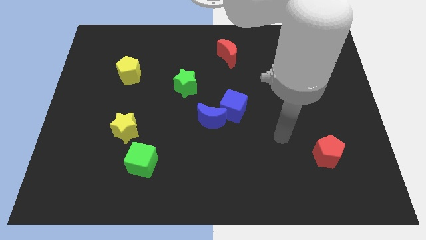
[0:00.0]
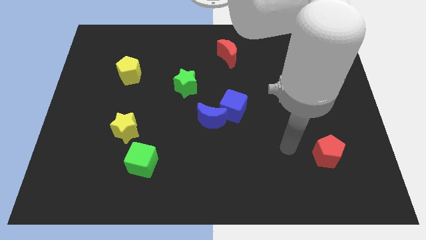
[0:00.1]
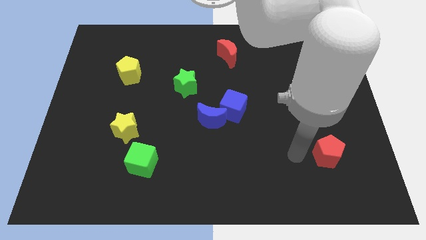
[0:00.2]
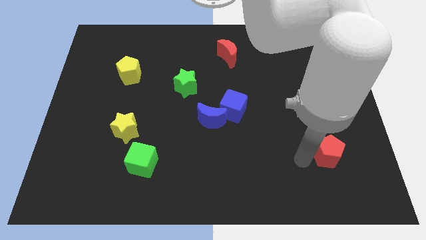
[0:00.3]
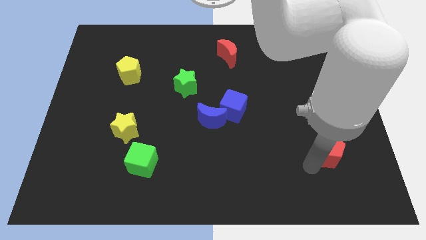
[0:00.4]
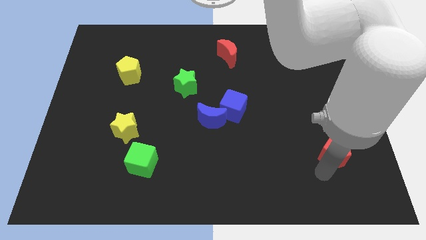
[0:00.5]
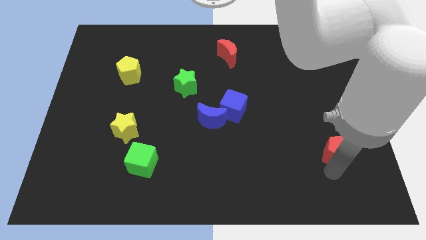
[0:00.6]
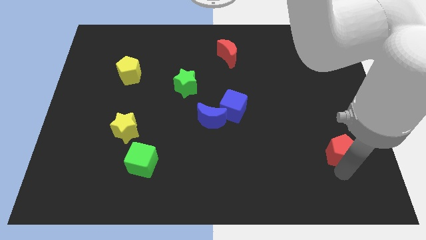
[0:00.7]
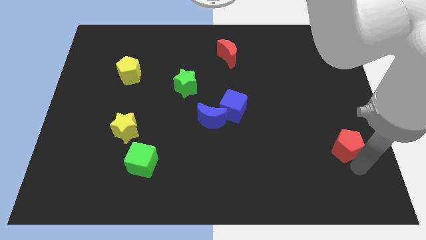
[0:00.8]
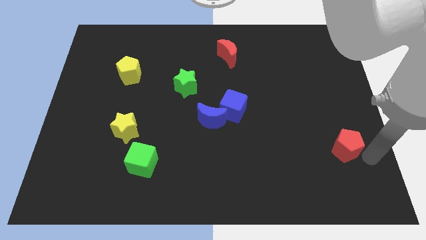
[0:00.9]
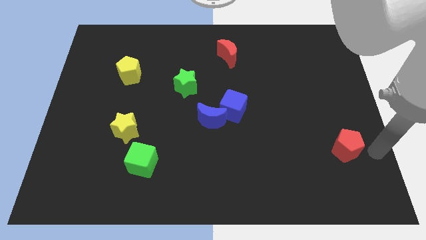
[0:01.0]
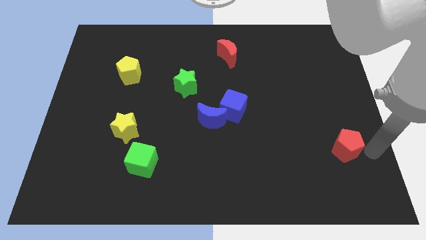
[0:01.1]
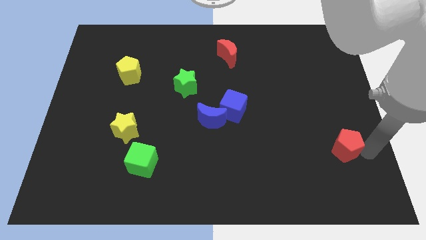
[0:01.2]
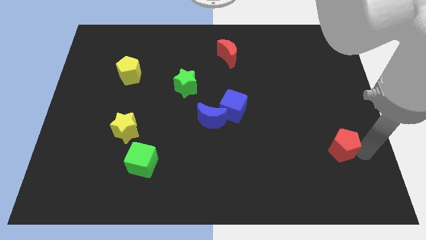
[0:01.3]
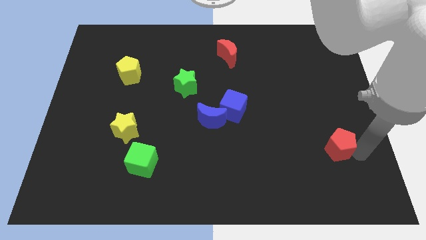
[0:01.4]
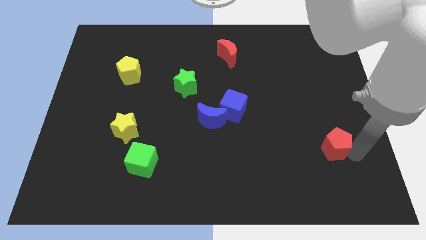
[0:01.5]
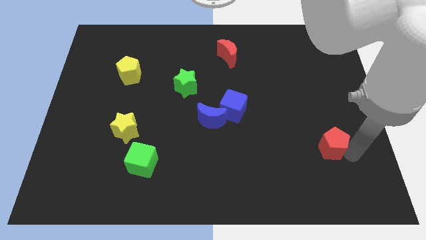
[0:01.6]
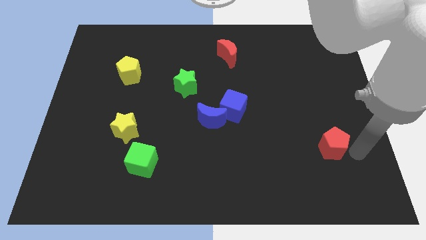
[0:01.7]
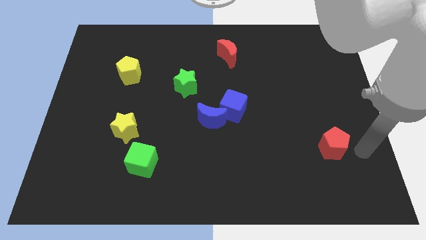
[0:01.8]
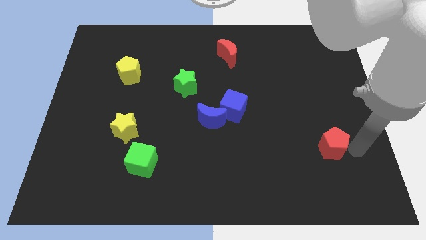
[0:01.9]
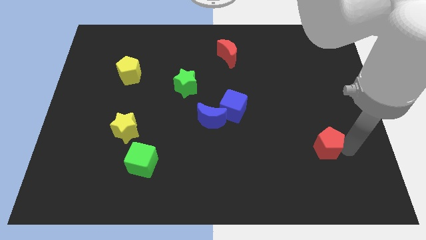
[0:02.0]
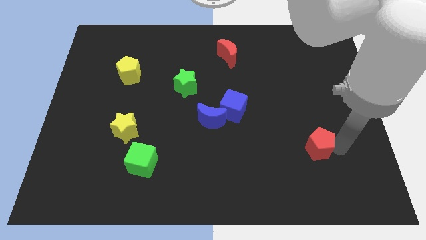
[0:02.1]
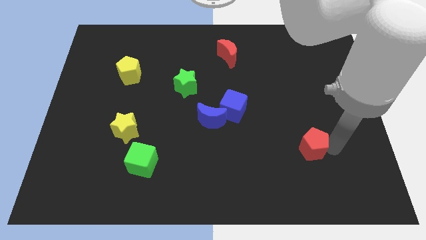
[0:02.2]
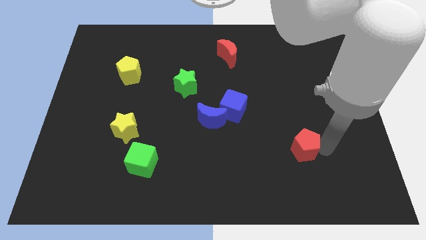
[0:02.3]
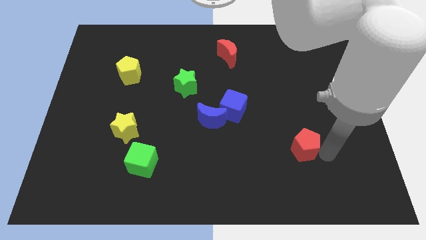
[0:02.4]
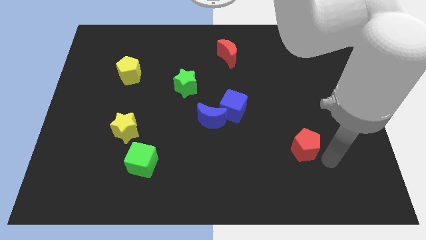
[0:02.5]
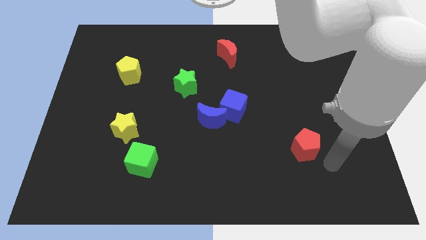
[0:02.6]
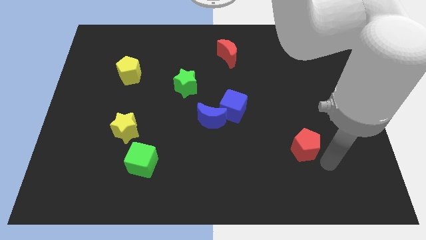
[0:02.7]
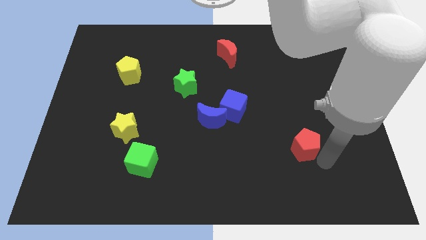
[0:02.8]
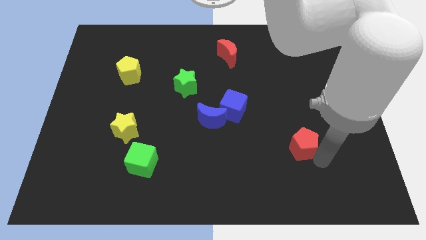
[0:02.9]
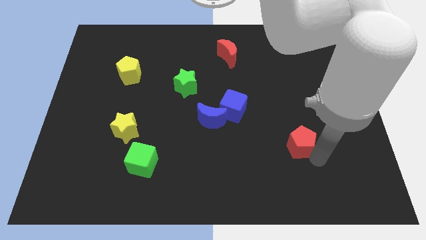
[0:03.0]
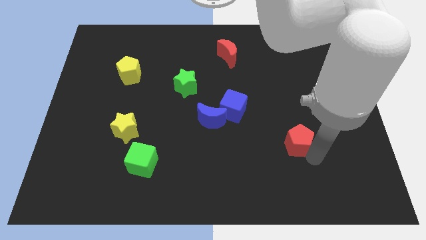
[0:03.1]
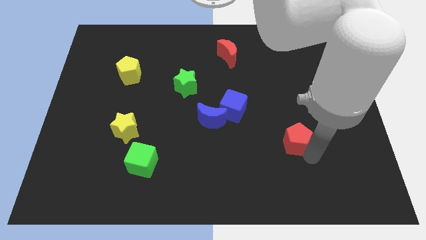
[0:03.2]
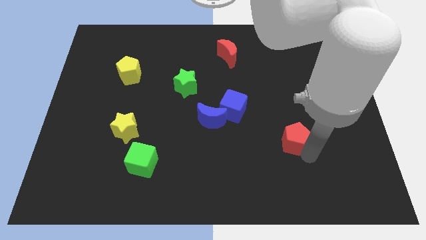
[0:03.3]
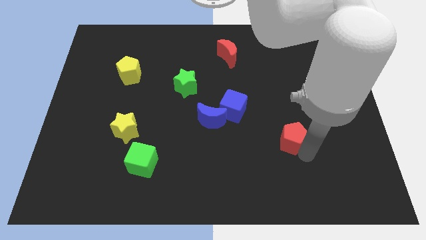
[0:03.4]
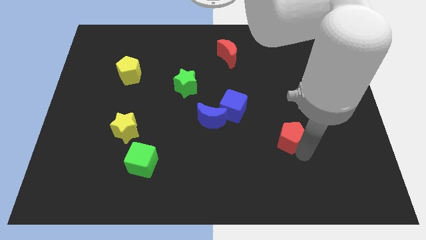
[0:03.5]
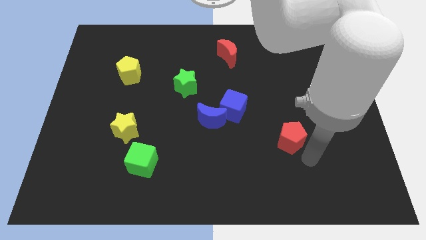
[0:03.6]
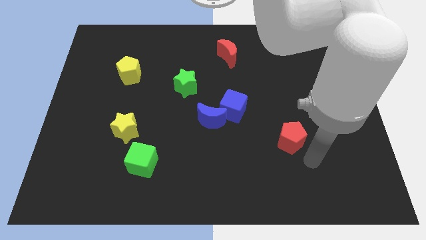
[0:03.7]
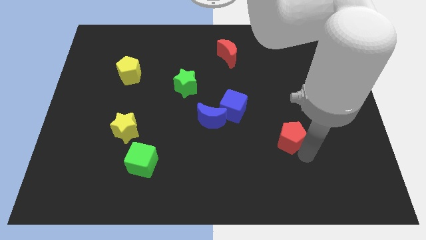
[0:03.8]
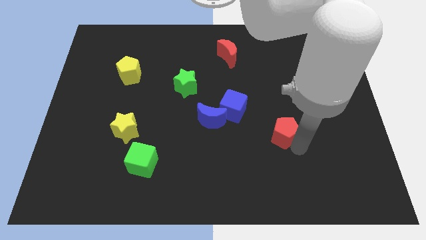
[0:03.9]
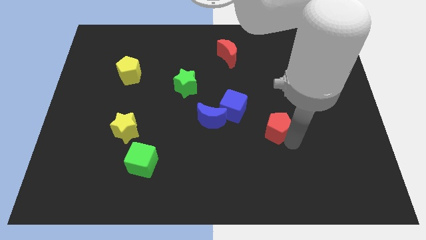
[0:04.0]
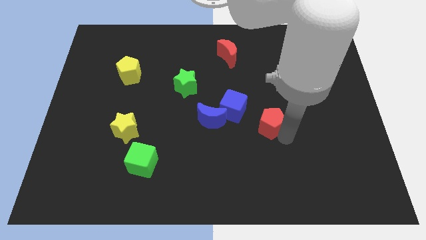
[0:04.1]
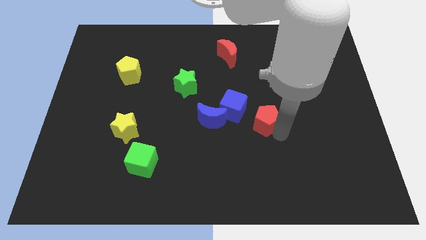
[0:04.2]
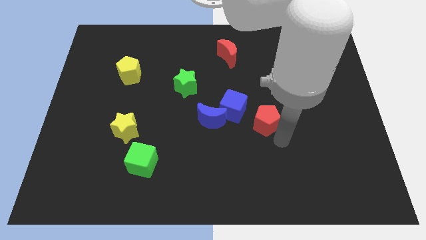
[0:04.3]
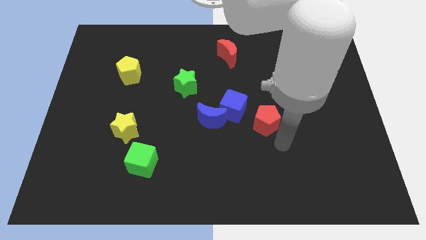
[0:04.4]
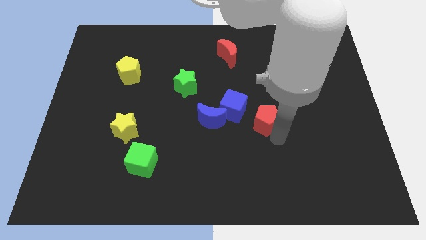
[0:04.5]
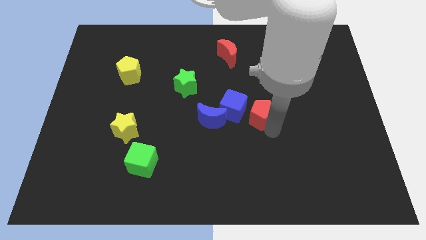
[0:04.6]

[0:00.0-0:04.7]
slide the red pentagon to the center of the board

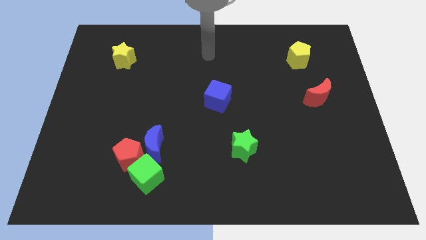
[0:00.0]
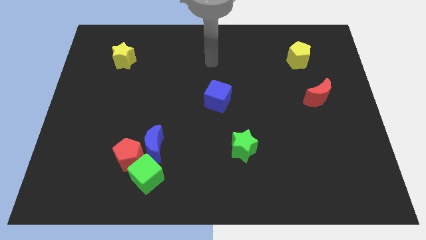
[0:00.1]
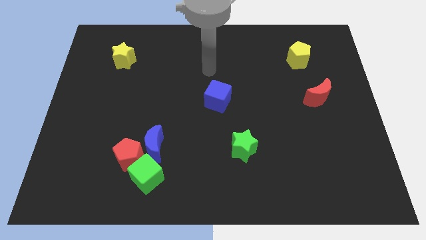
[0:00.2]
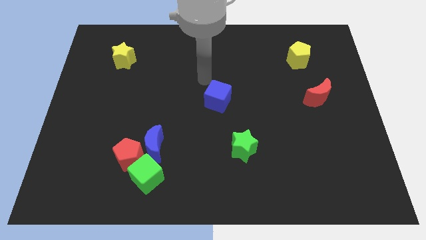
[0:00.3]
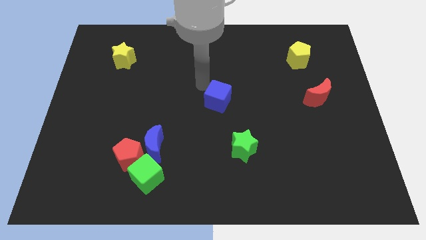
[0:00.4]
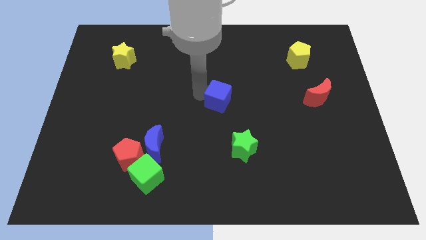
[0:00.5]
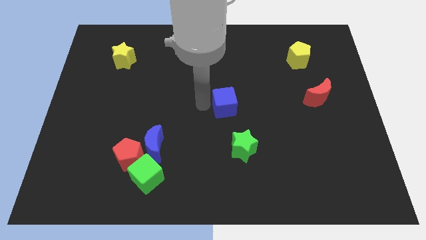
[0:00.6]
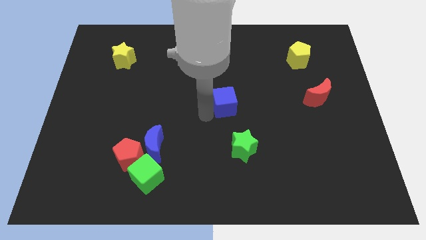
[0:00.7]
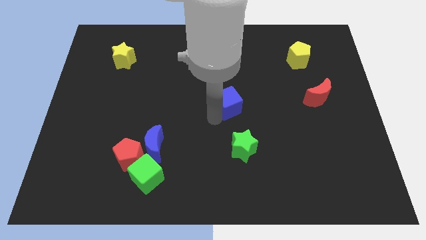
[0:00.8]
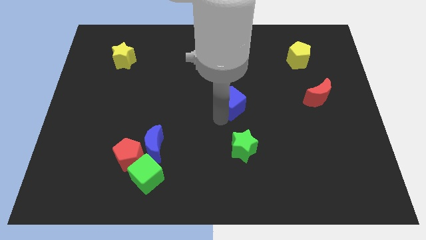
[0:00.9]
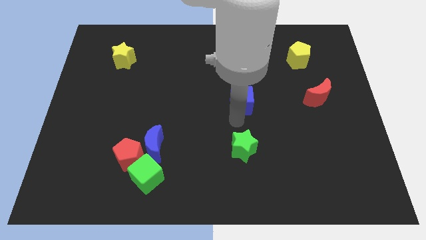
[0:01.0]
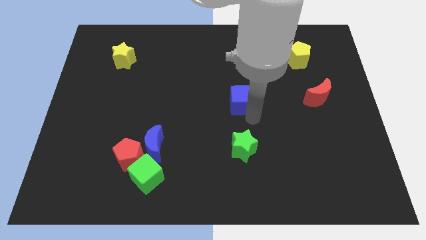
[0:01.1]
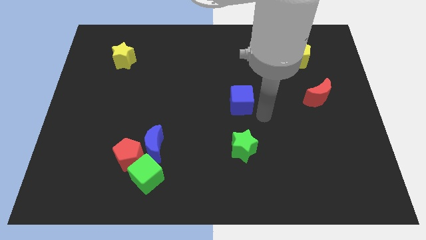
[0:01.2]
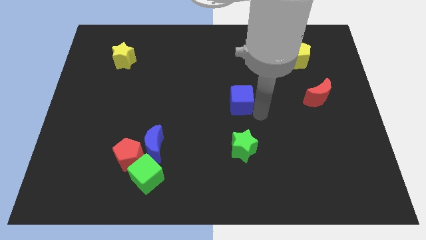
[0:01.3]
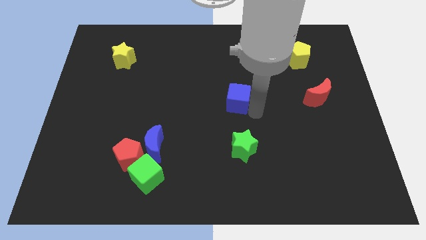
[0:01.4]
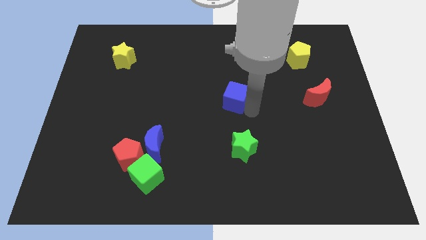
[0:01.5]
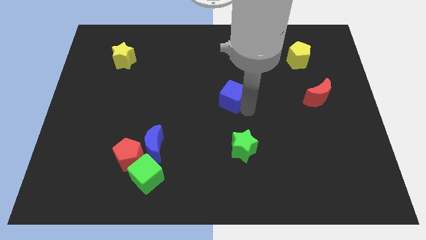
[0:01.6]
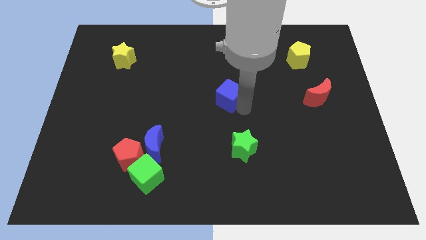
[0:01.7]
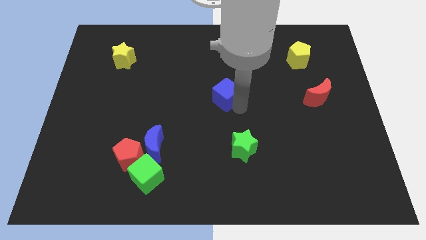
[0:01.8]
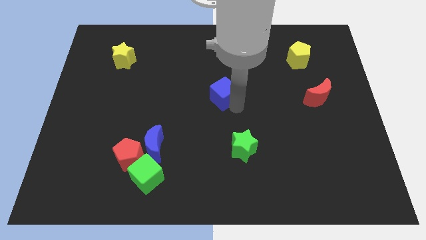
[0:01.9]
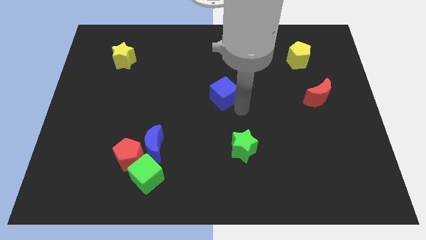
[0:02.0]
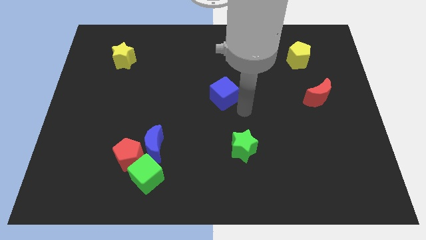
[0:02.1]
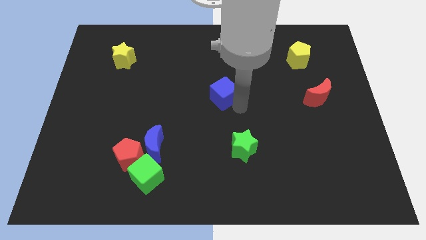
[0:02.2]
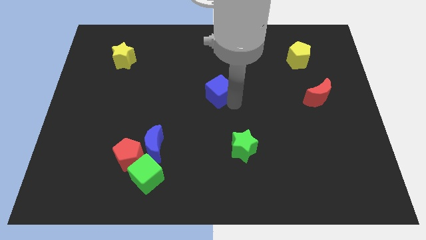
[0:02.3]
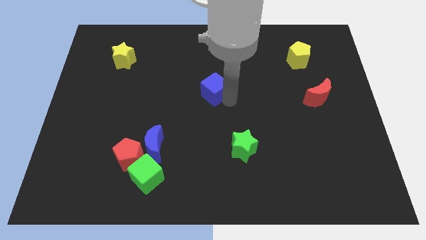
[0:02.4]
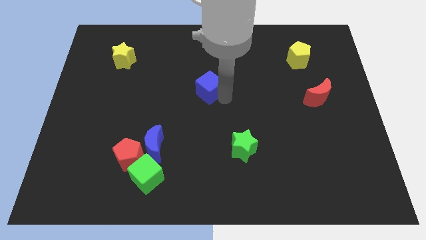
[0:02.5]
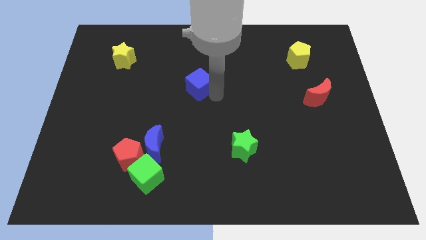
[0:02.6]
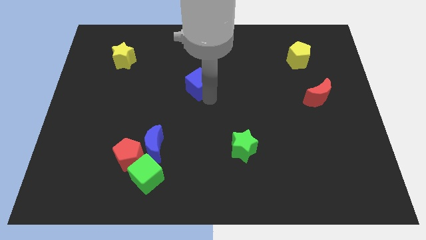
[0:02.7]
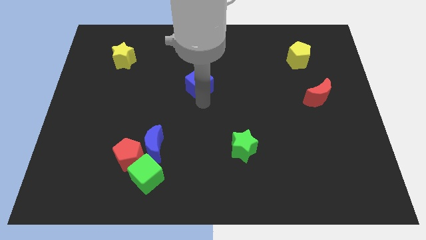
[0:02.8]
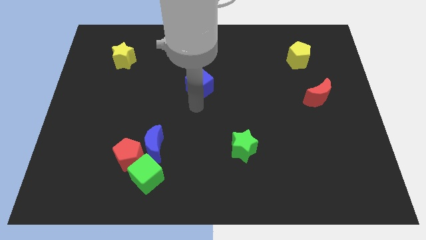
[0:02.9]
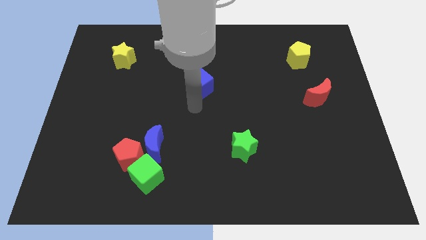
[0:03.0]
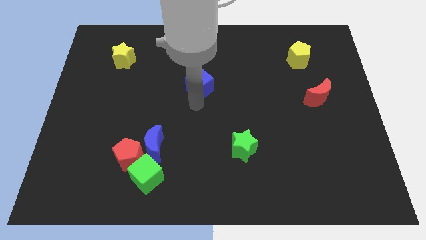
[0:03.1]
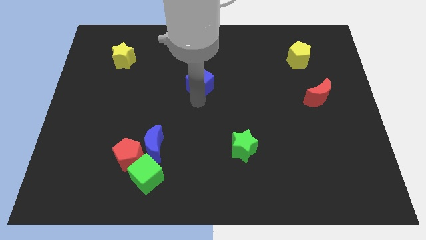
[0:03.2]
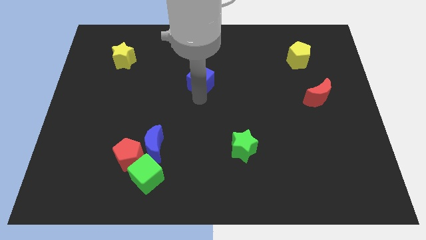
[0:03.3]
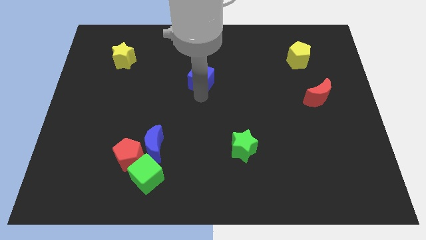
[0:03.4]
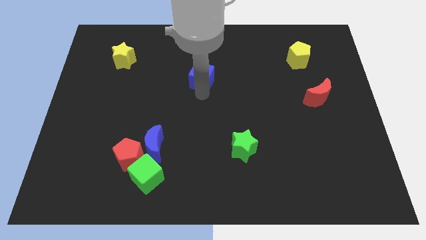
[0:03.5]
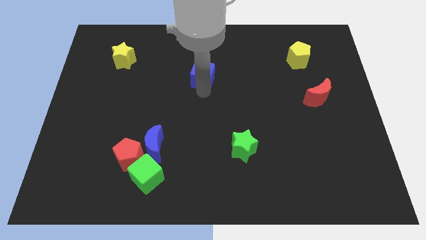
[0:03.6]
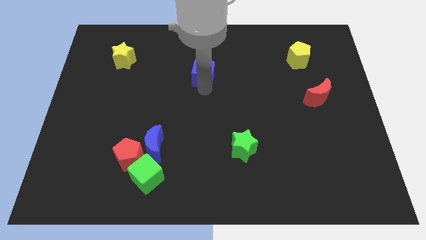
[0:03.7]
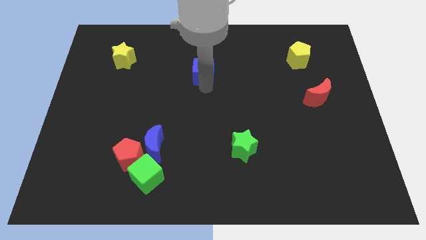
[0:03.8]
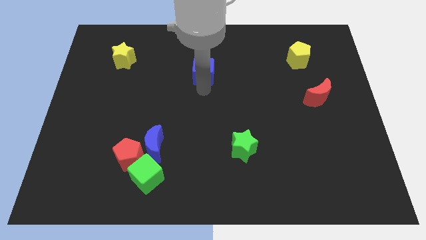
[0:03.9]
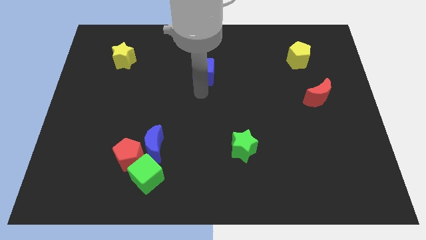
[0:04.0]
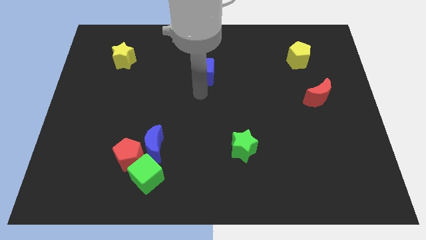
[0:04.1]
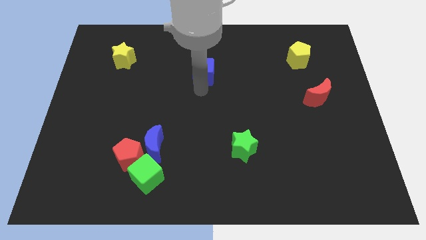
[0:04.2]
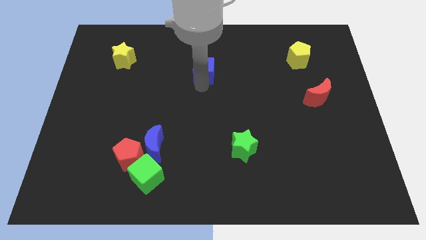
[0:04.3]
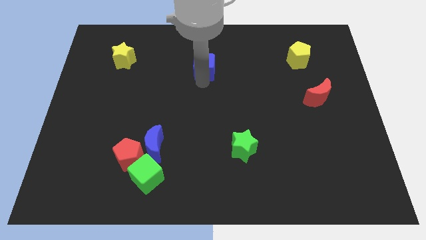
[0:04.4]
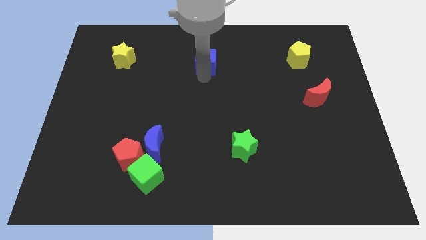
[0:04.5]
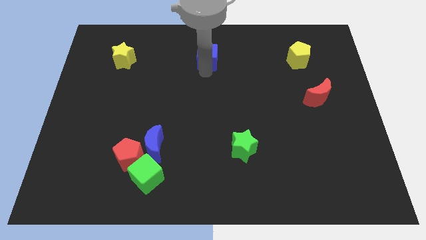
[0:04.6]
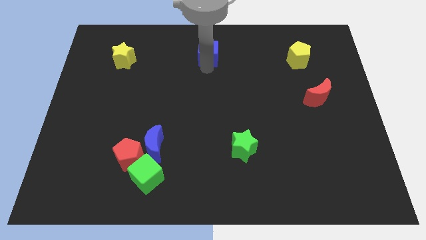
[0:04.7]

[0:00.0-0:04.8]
slide the blue cube to the top side
